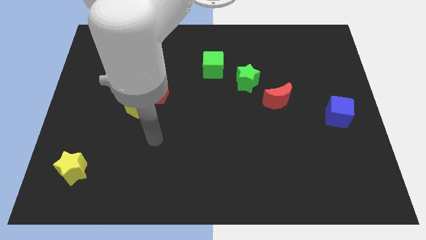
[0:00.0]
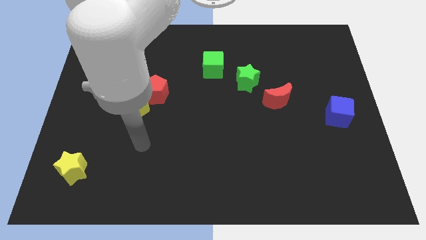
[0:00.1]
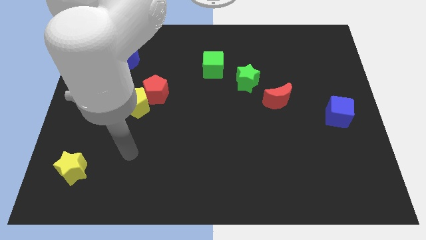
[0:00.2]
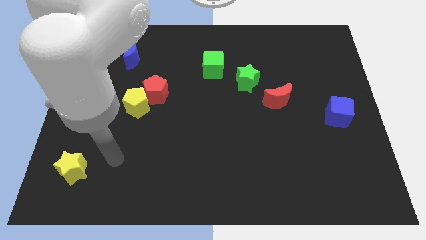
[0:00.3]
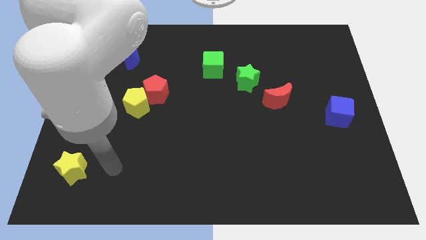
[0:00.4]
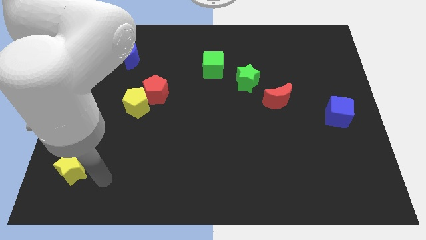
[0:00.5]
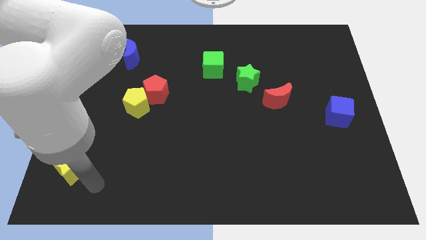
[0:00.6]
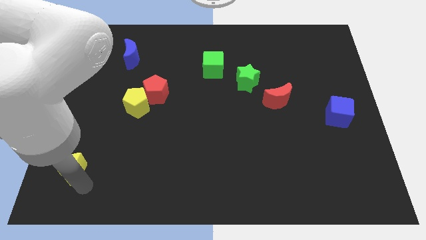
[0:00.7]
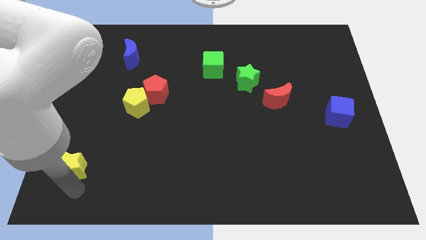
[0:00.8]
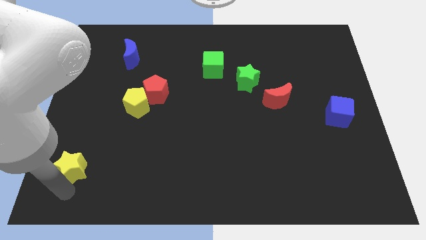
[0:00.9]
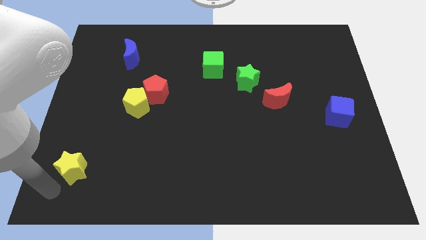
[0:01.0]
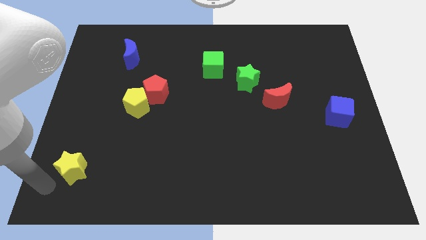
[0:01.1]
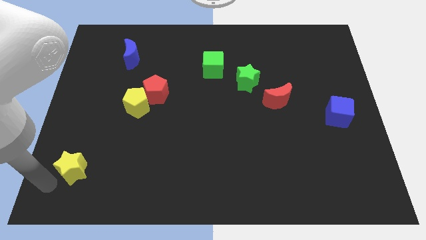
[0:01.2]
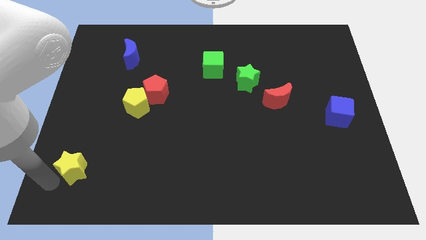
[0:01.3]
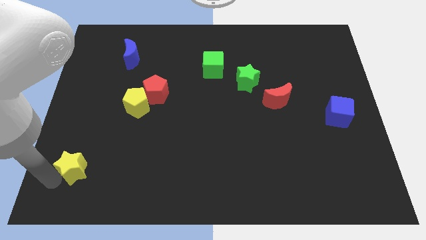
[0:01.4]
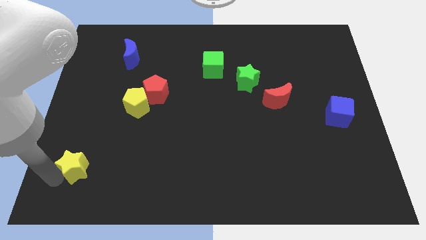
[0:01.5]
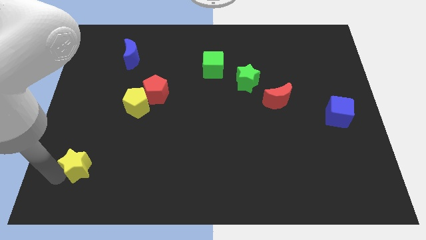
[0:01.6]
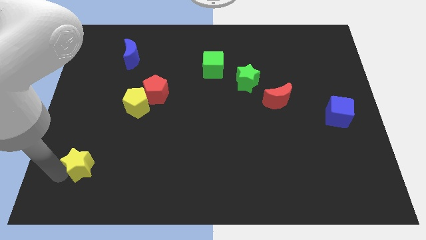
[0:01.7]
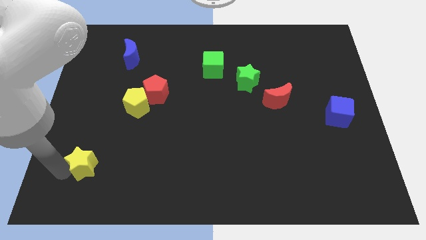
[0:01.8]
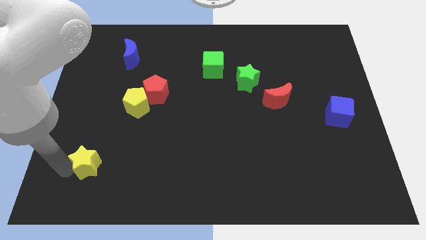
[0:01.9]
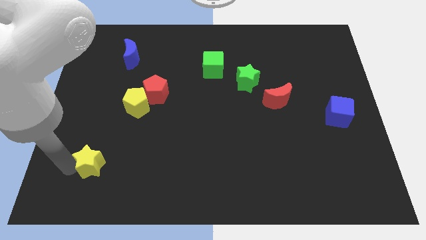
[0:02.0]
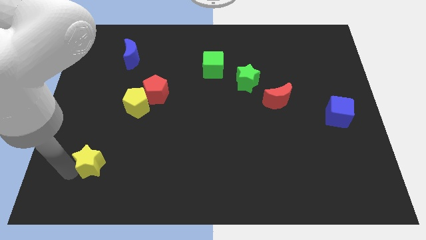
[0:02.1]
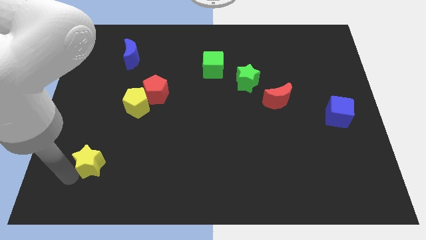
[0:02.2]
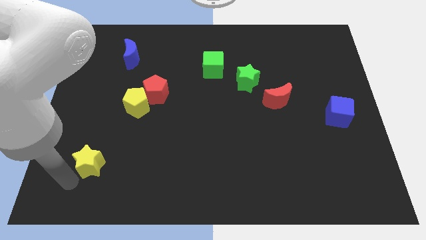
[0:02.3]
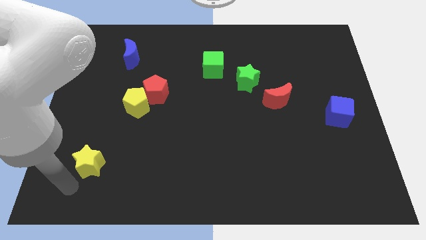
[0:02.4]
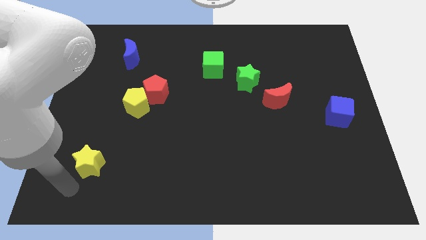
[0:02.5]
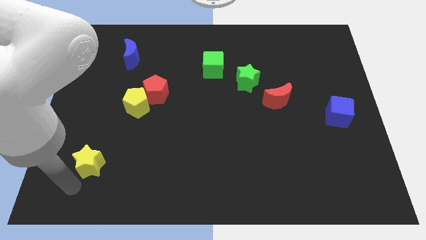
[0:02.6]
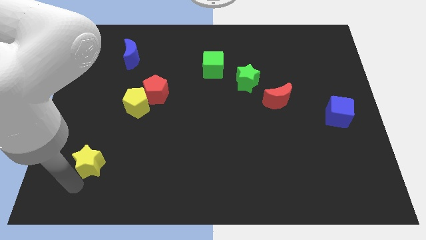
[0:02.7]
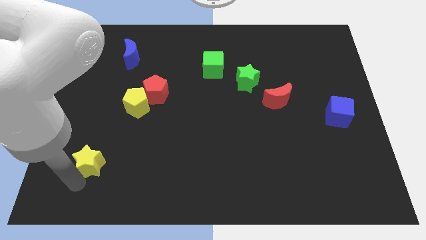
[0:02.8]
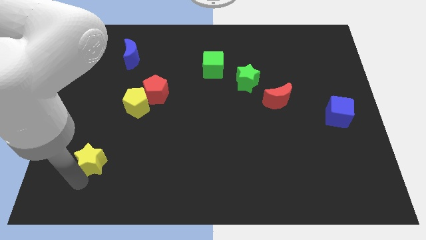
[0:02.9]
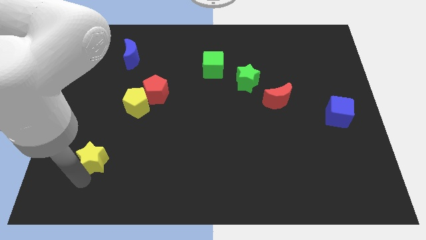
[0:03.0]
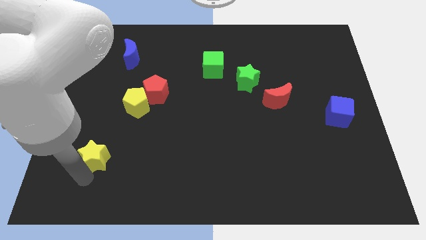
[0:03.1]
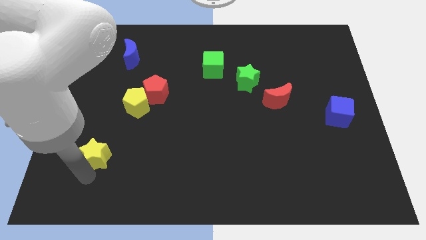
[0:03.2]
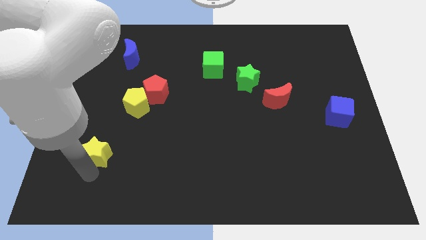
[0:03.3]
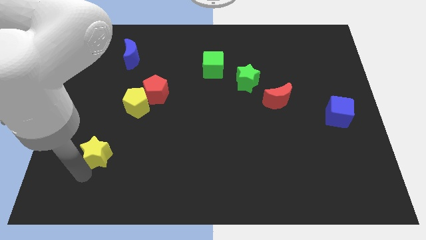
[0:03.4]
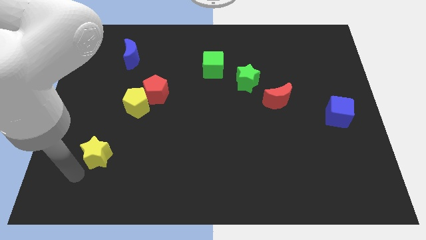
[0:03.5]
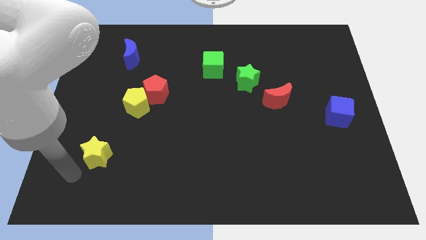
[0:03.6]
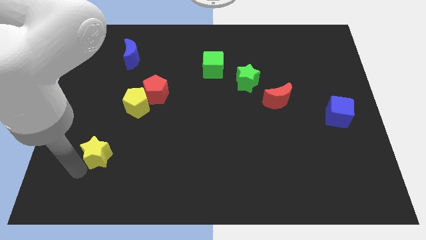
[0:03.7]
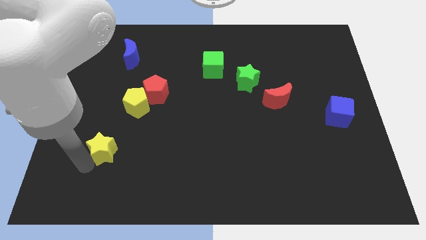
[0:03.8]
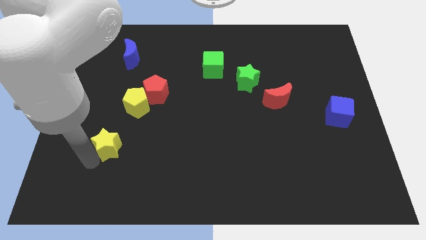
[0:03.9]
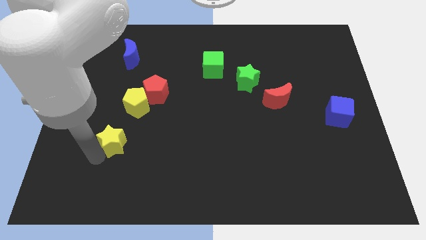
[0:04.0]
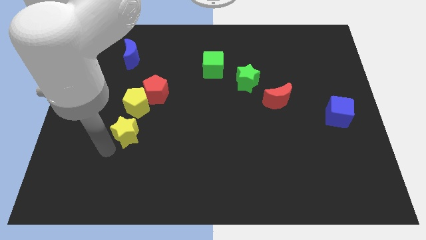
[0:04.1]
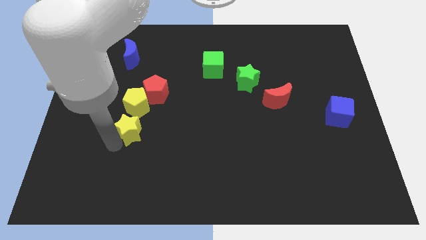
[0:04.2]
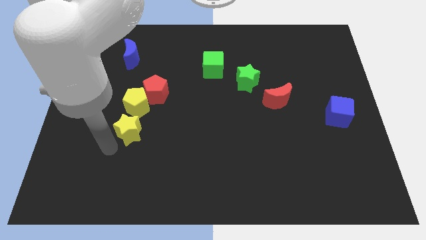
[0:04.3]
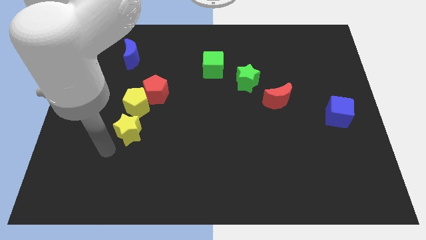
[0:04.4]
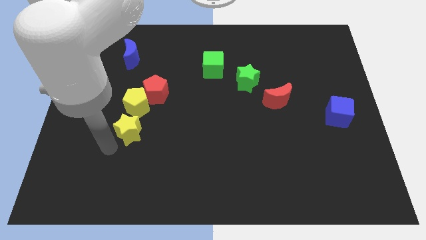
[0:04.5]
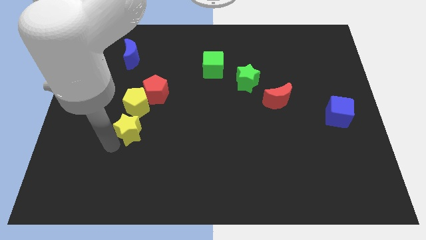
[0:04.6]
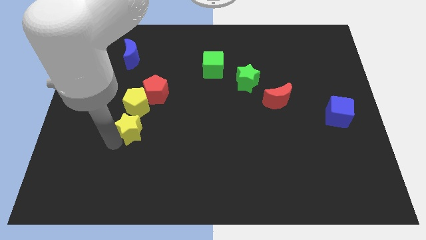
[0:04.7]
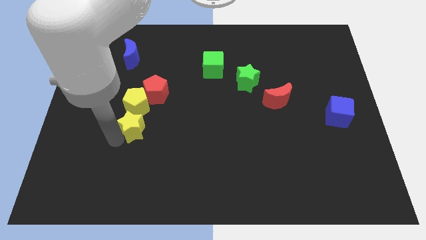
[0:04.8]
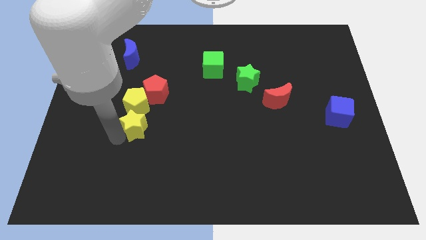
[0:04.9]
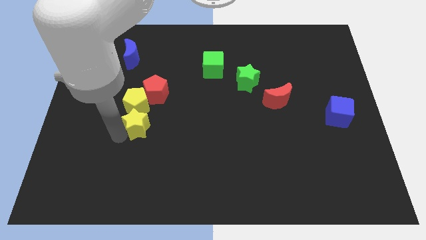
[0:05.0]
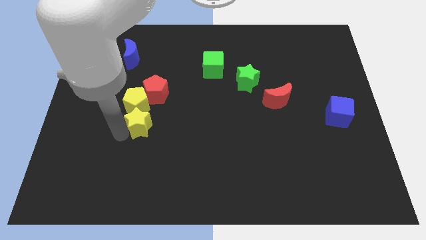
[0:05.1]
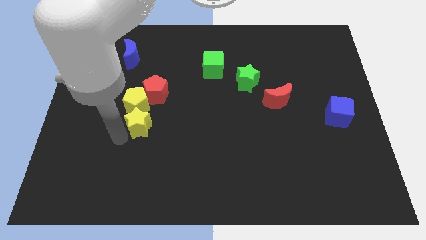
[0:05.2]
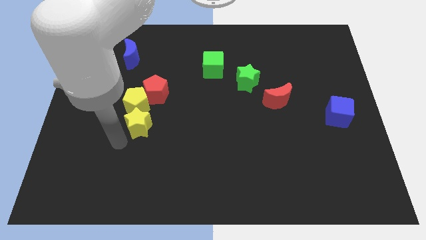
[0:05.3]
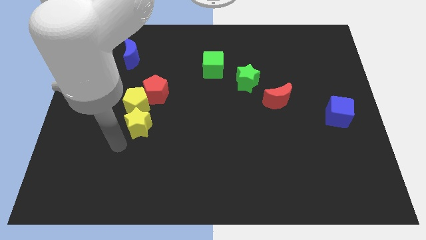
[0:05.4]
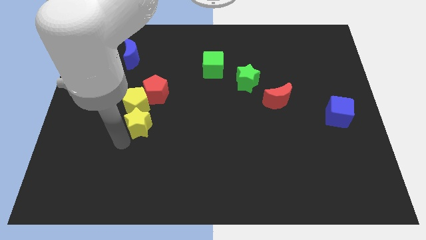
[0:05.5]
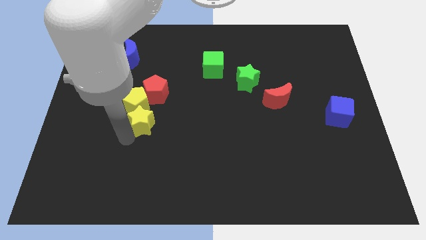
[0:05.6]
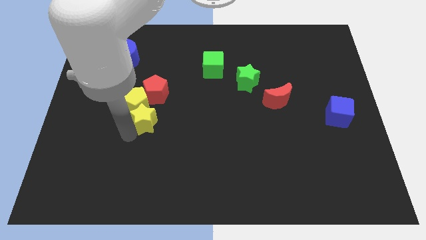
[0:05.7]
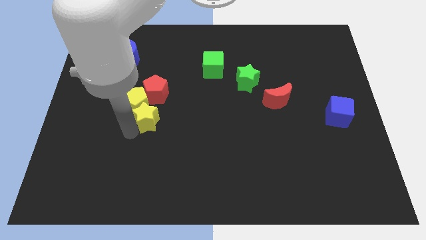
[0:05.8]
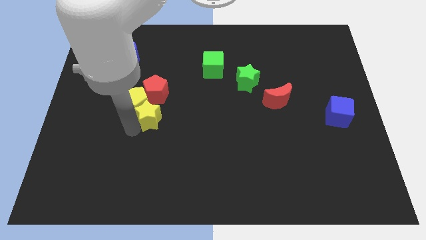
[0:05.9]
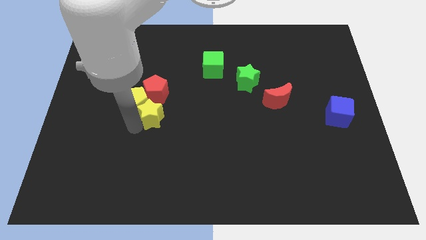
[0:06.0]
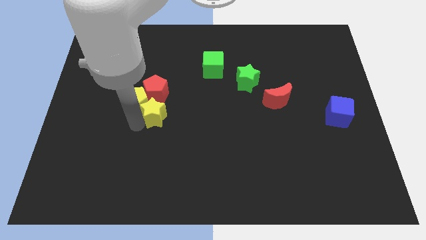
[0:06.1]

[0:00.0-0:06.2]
push the yellow star to the bottom right side of the red pentagon

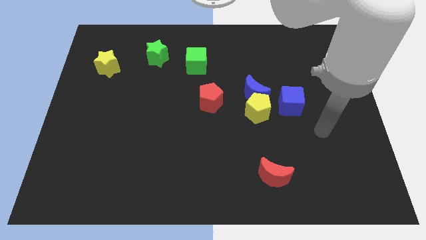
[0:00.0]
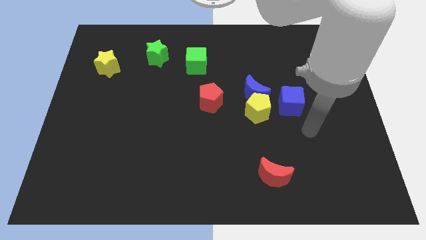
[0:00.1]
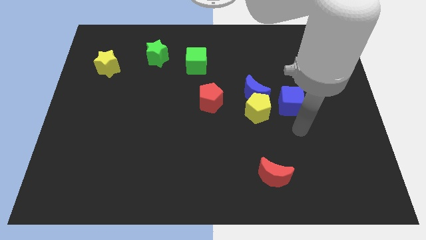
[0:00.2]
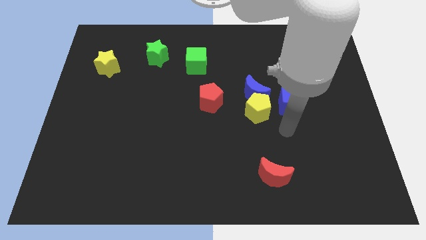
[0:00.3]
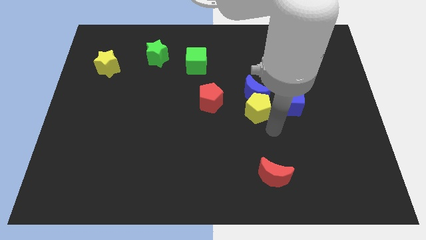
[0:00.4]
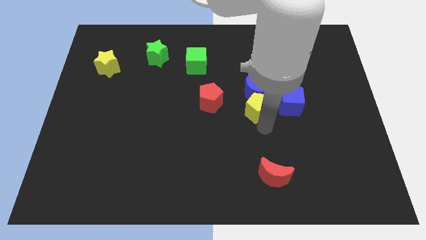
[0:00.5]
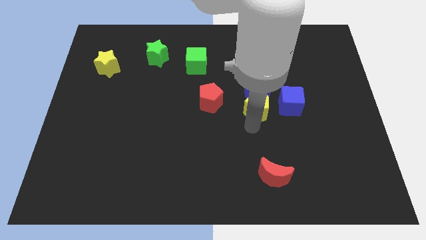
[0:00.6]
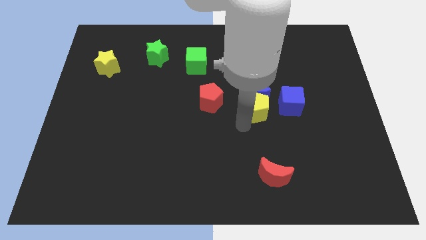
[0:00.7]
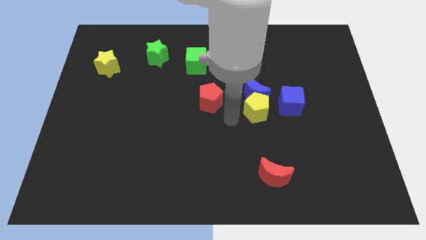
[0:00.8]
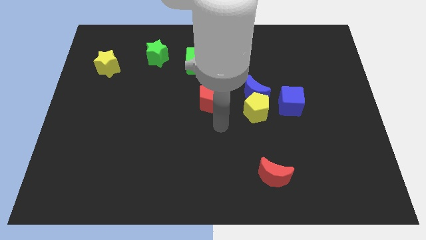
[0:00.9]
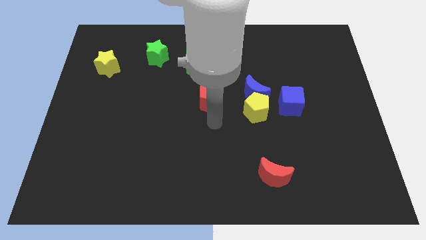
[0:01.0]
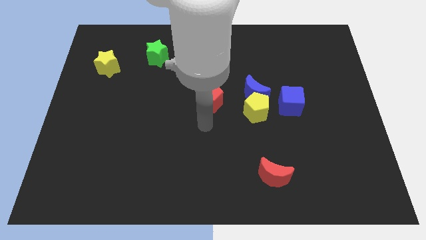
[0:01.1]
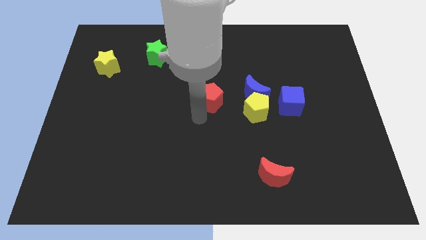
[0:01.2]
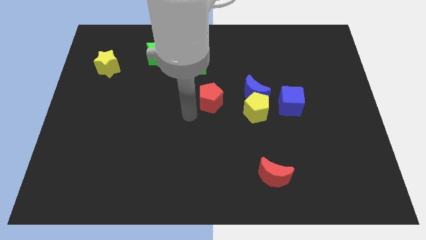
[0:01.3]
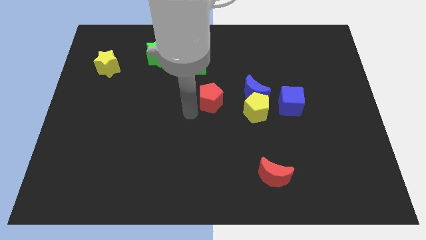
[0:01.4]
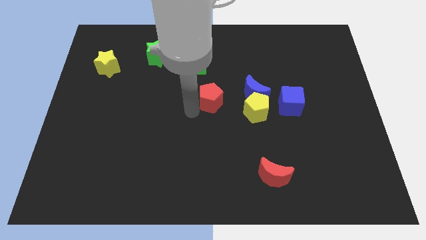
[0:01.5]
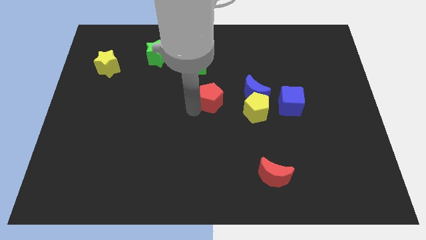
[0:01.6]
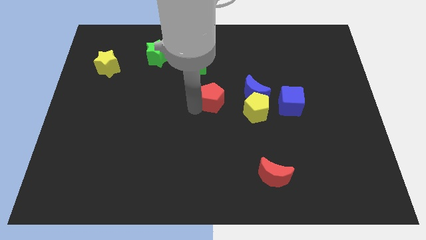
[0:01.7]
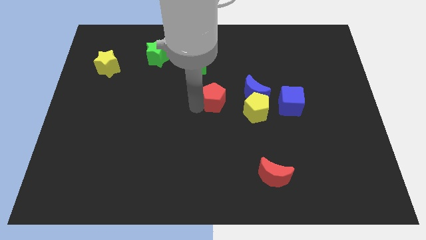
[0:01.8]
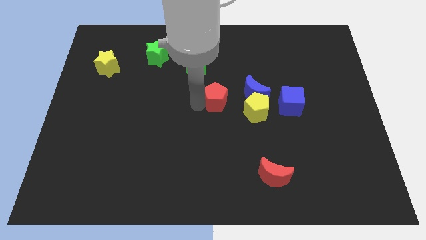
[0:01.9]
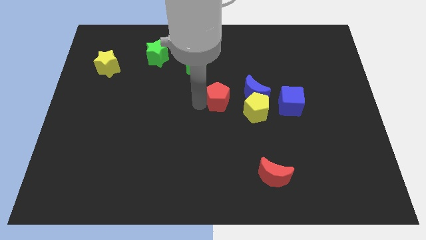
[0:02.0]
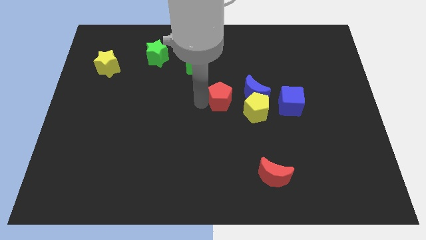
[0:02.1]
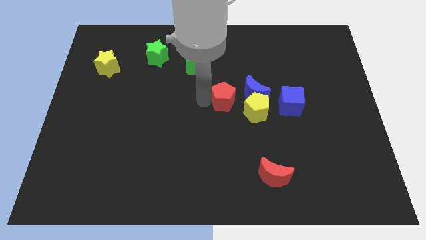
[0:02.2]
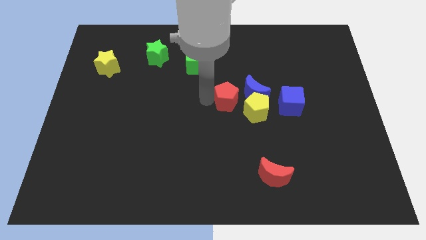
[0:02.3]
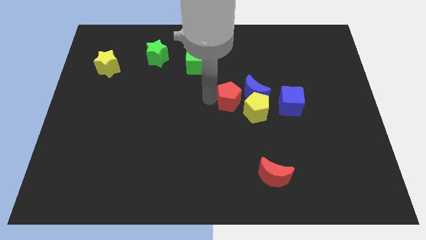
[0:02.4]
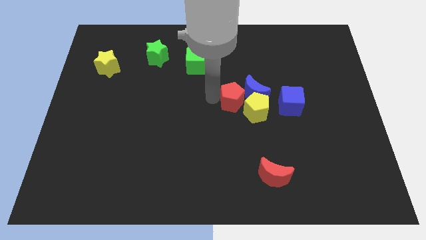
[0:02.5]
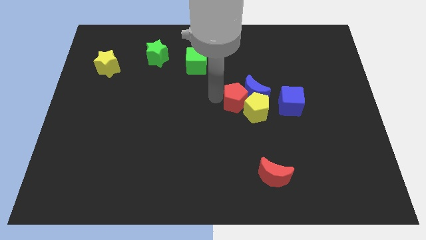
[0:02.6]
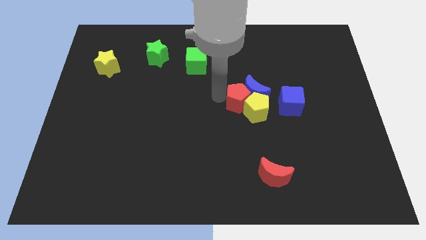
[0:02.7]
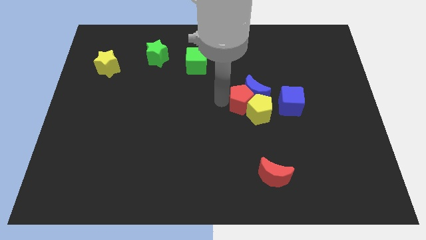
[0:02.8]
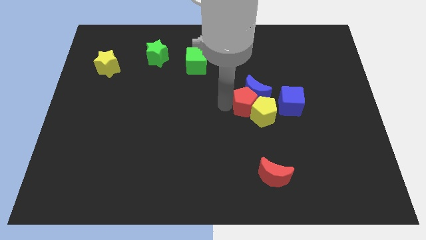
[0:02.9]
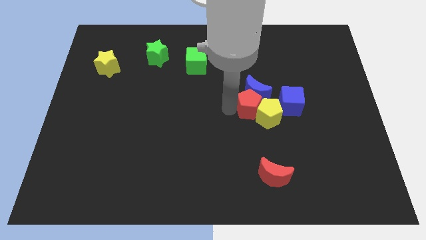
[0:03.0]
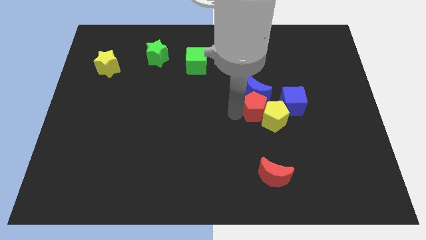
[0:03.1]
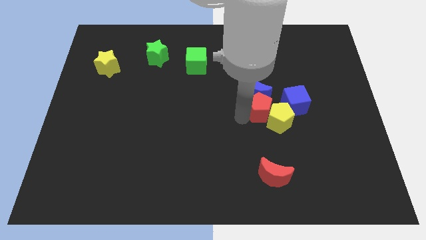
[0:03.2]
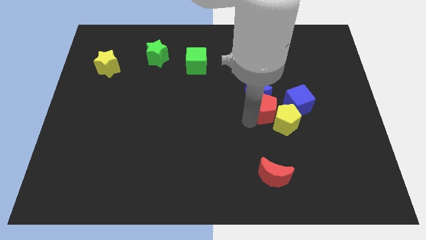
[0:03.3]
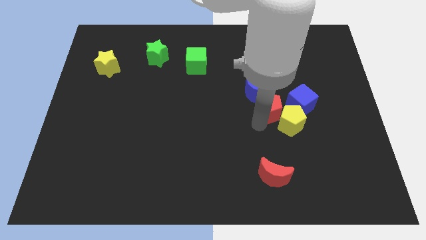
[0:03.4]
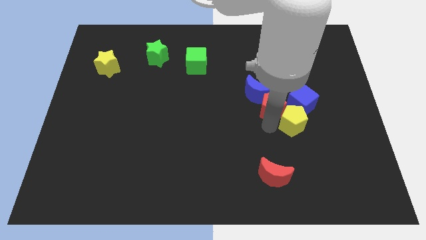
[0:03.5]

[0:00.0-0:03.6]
slide the red pentagon to the right side of the blue moon
